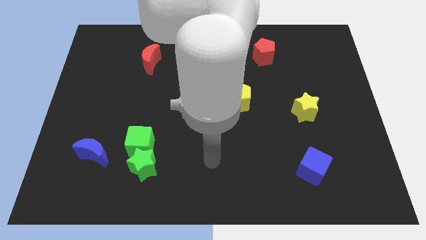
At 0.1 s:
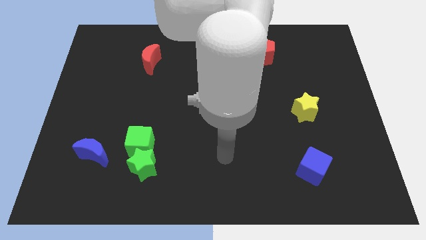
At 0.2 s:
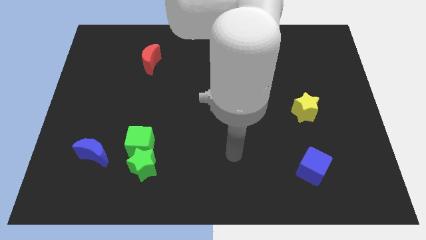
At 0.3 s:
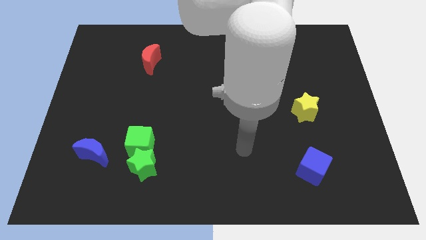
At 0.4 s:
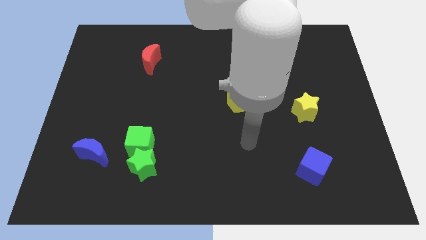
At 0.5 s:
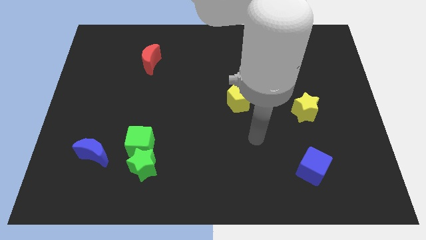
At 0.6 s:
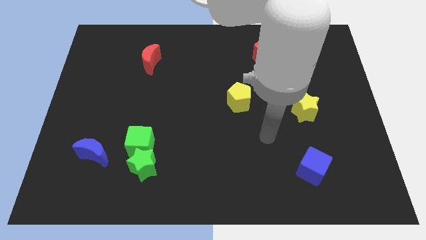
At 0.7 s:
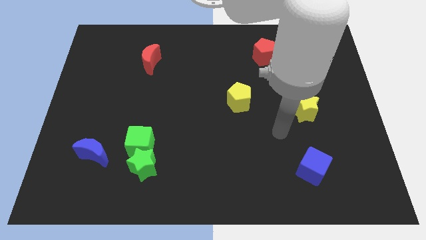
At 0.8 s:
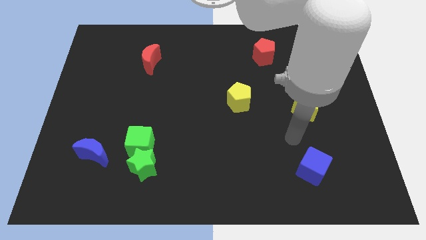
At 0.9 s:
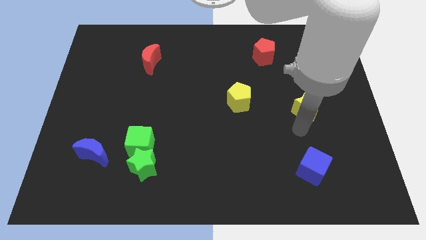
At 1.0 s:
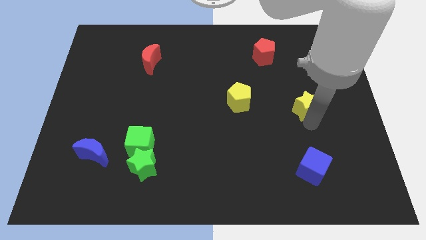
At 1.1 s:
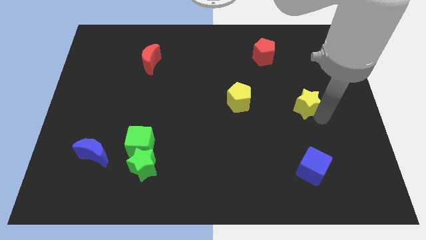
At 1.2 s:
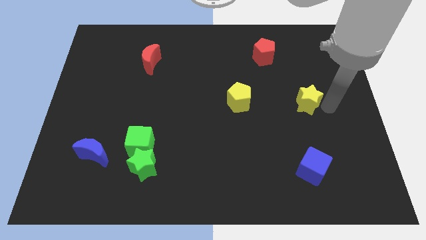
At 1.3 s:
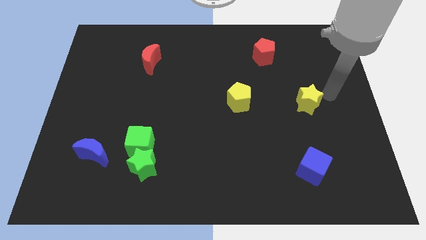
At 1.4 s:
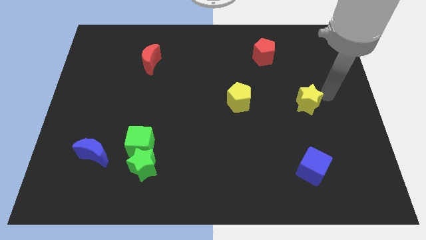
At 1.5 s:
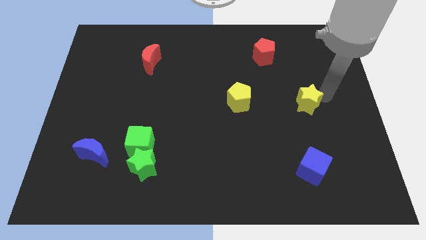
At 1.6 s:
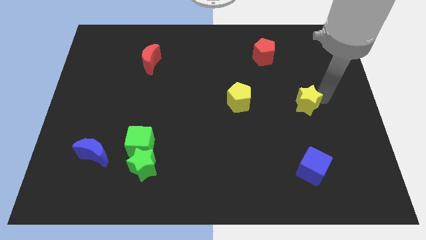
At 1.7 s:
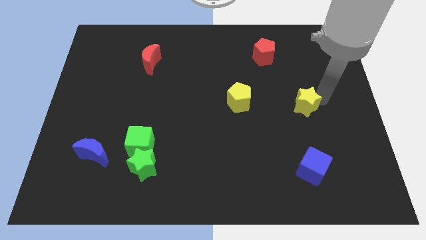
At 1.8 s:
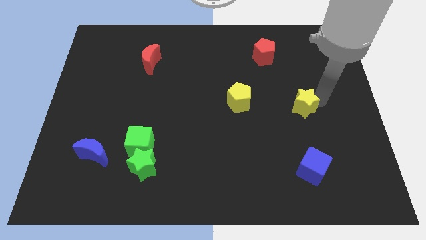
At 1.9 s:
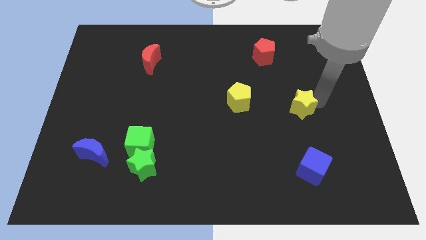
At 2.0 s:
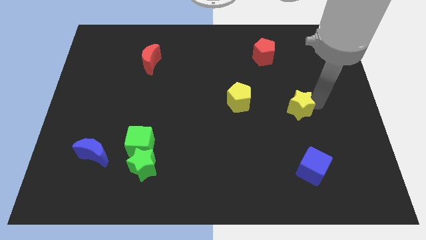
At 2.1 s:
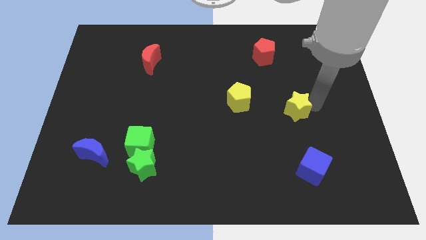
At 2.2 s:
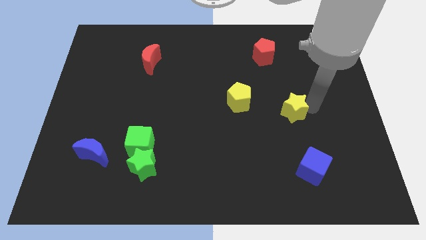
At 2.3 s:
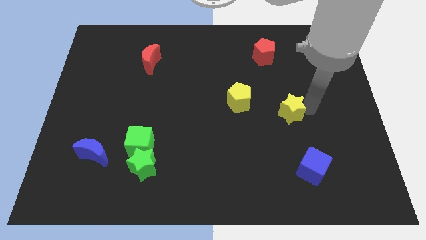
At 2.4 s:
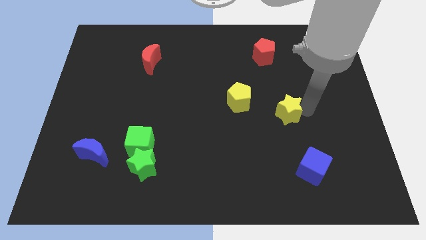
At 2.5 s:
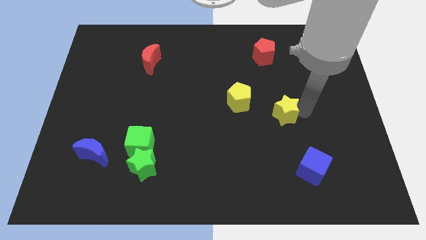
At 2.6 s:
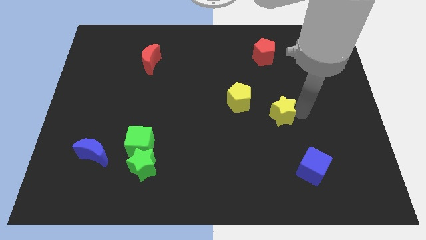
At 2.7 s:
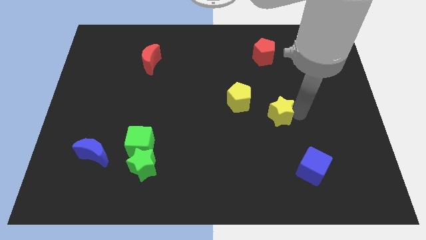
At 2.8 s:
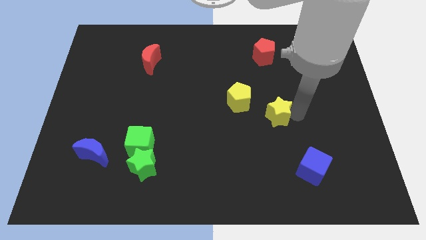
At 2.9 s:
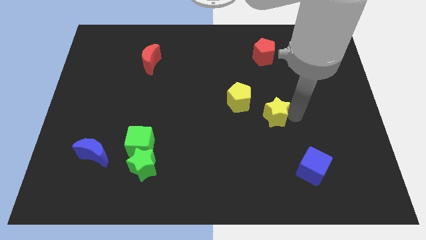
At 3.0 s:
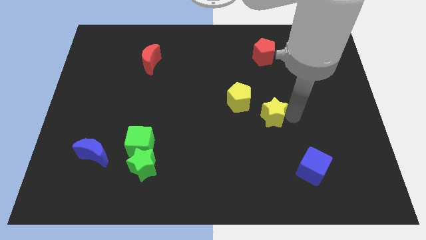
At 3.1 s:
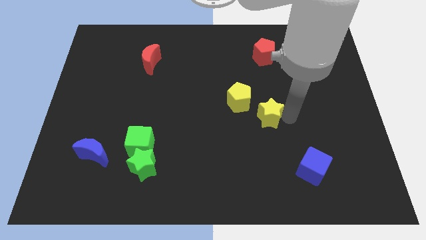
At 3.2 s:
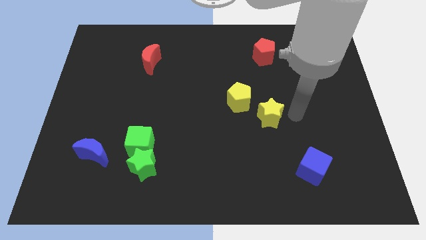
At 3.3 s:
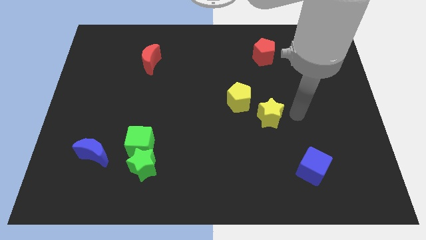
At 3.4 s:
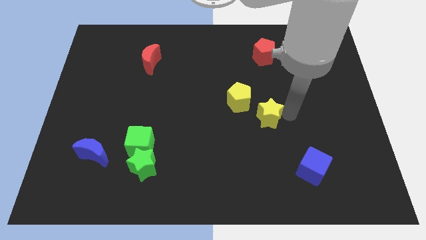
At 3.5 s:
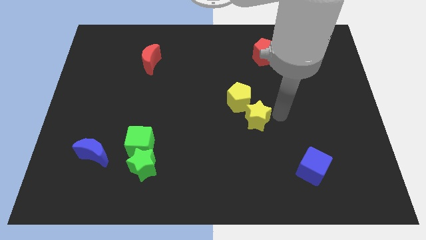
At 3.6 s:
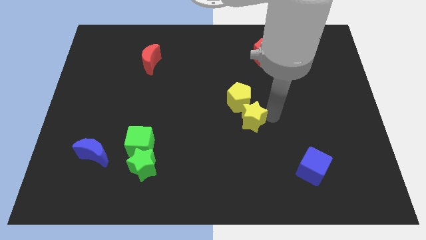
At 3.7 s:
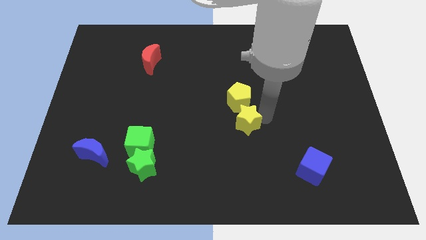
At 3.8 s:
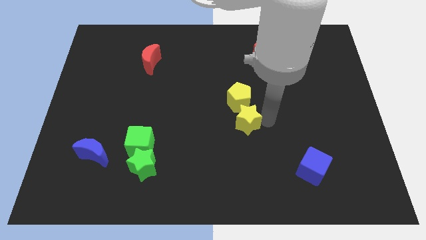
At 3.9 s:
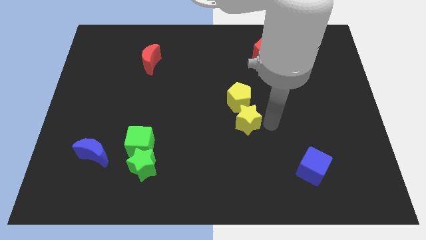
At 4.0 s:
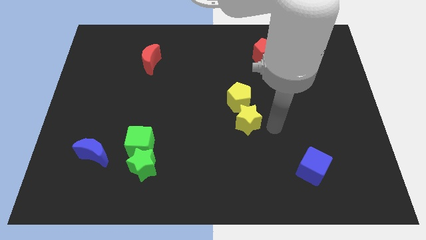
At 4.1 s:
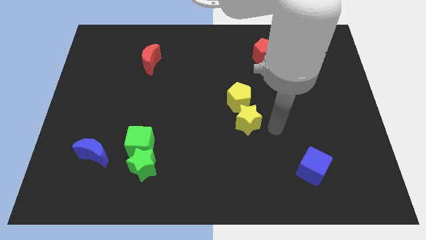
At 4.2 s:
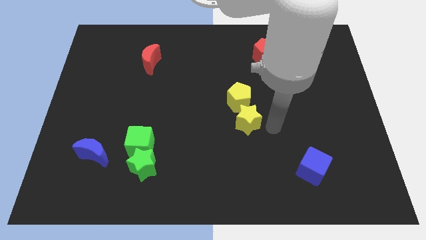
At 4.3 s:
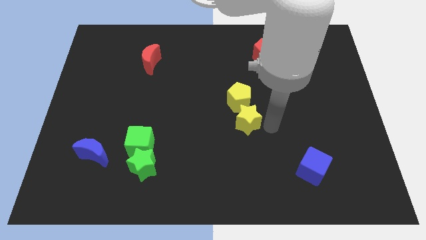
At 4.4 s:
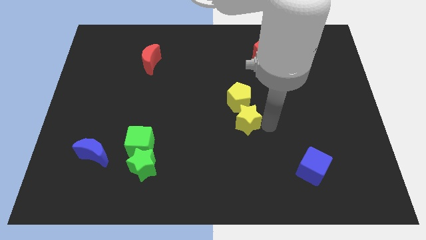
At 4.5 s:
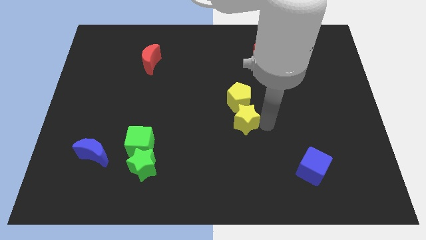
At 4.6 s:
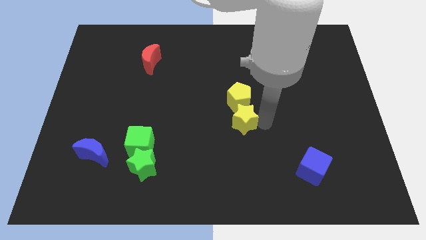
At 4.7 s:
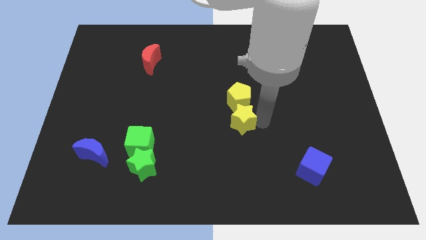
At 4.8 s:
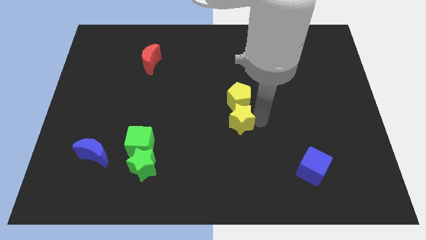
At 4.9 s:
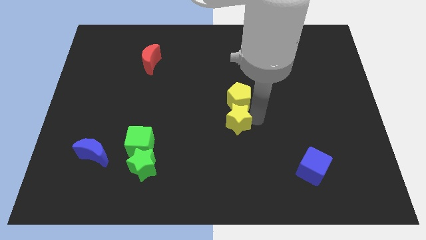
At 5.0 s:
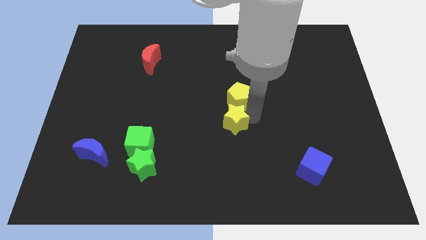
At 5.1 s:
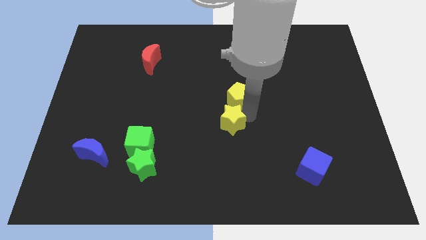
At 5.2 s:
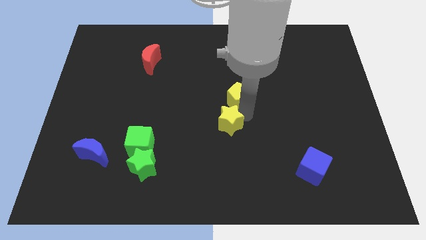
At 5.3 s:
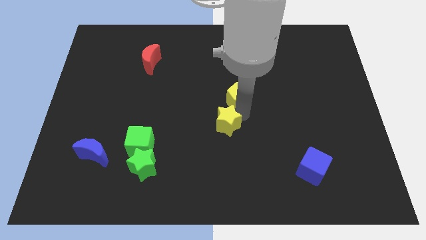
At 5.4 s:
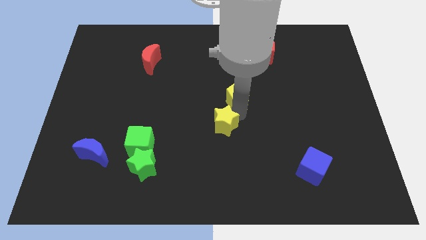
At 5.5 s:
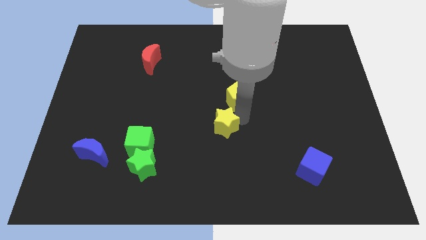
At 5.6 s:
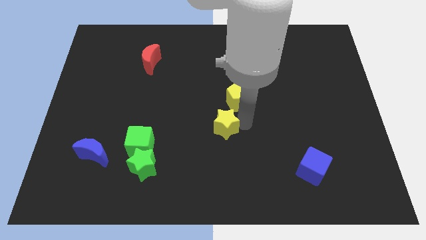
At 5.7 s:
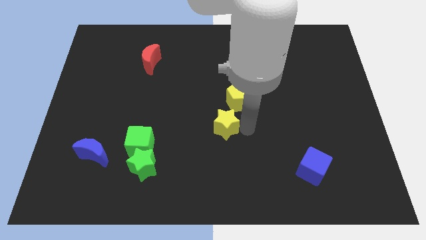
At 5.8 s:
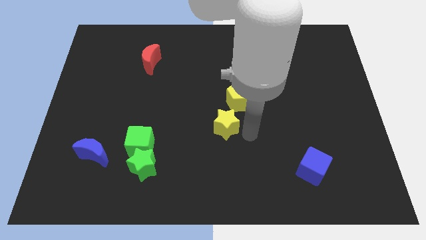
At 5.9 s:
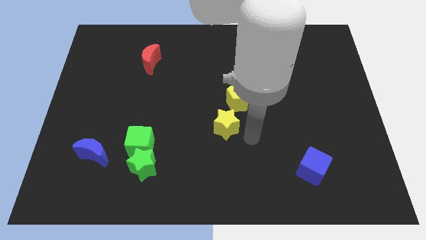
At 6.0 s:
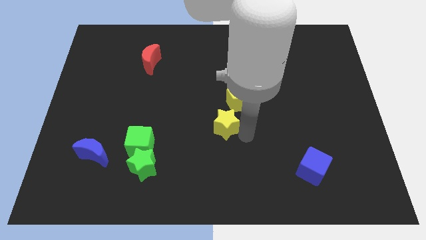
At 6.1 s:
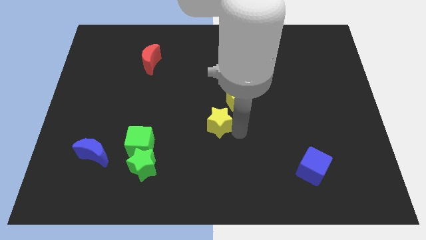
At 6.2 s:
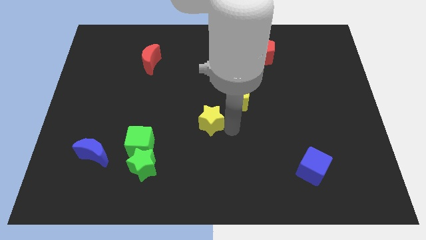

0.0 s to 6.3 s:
push the yellow star left

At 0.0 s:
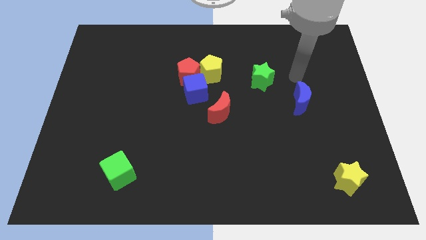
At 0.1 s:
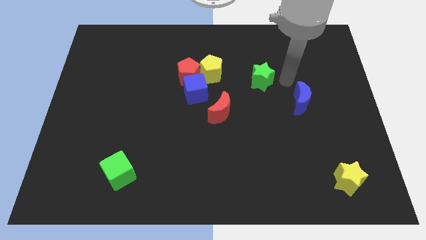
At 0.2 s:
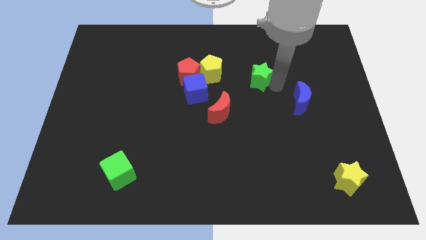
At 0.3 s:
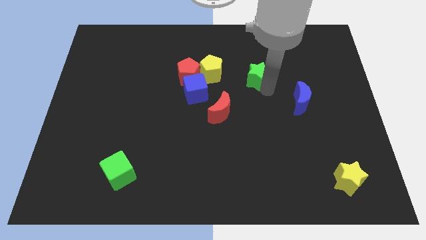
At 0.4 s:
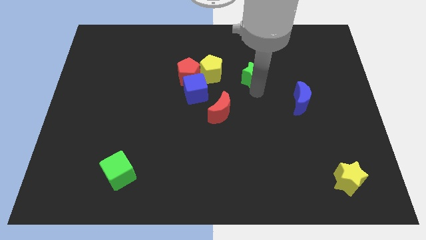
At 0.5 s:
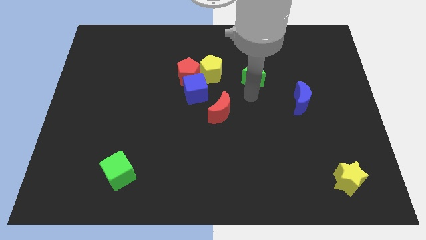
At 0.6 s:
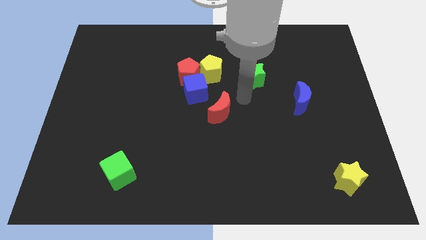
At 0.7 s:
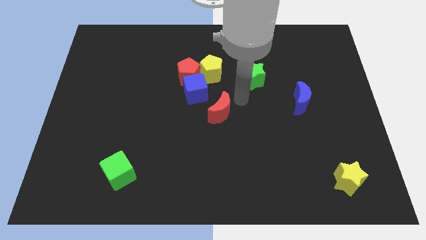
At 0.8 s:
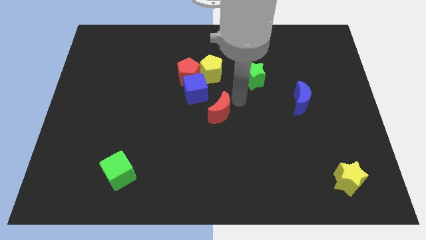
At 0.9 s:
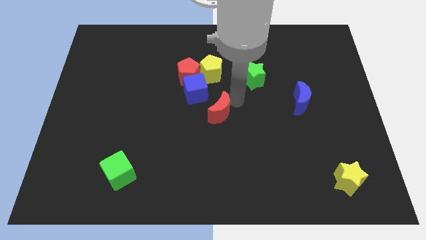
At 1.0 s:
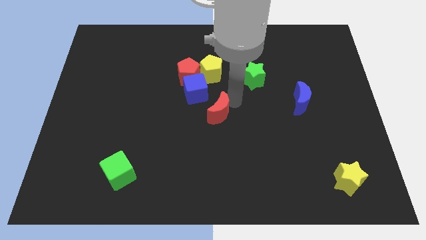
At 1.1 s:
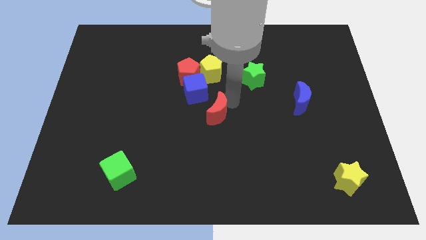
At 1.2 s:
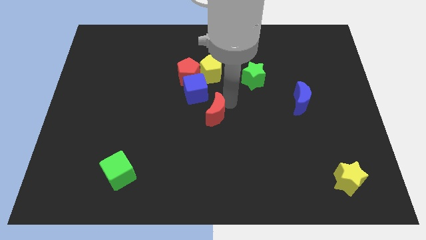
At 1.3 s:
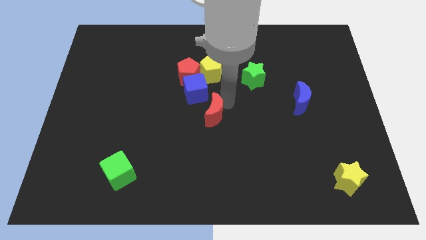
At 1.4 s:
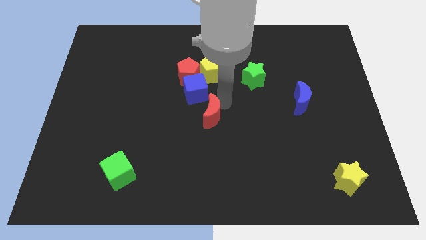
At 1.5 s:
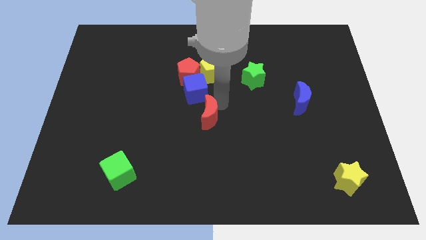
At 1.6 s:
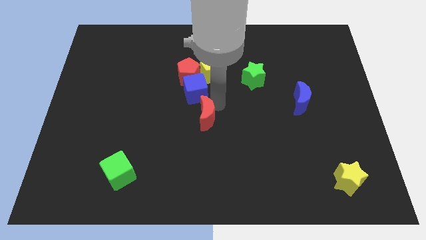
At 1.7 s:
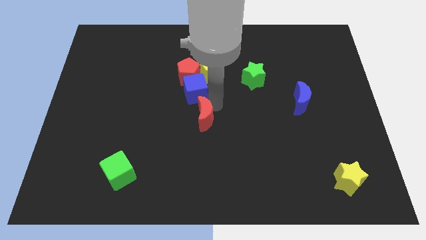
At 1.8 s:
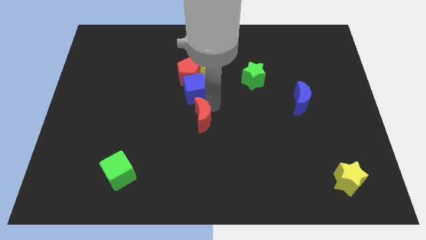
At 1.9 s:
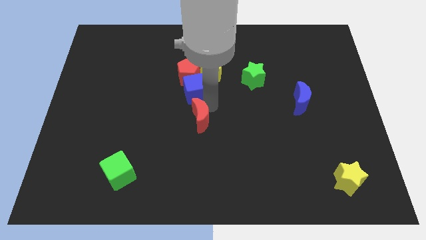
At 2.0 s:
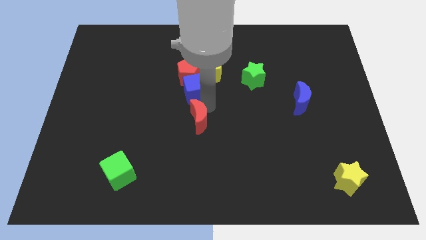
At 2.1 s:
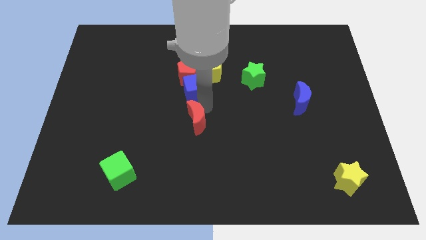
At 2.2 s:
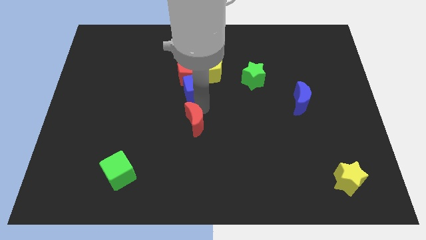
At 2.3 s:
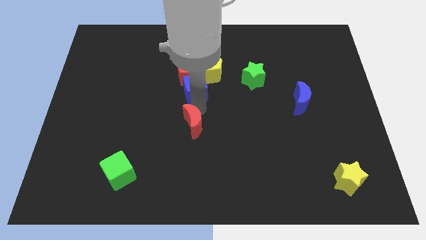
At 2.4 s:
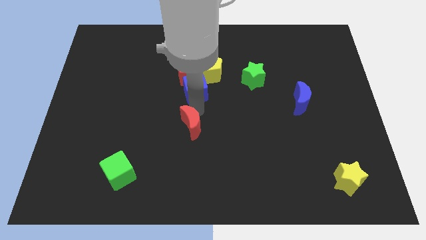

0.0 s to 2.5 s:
move the red moon diagonally downwards and to the left a little bit
